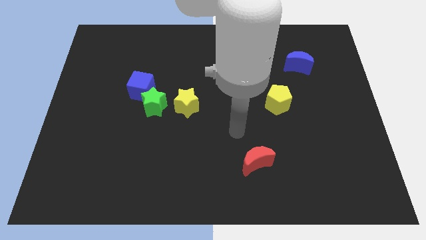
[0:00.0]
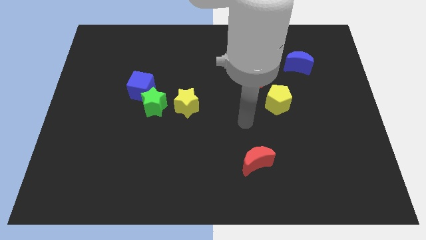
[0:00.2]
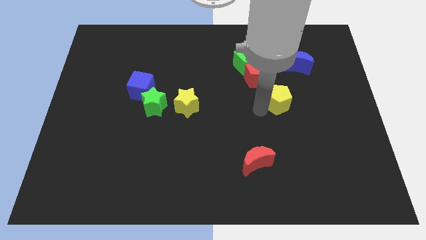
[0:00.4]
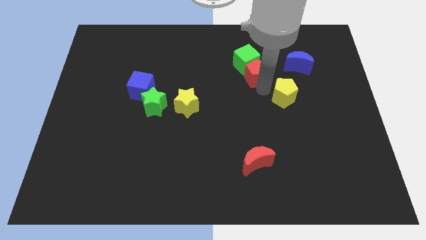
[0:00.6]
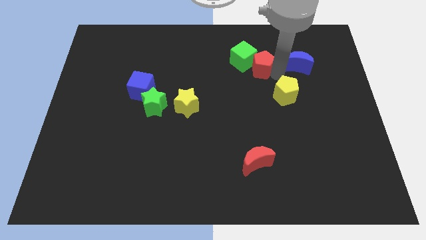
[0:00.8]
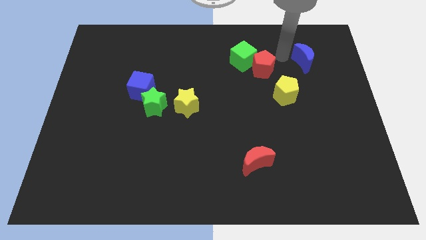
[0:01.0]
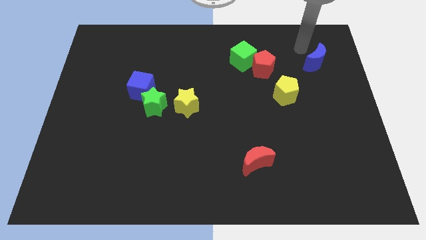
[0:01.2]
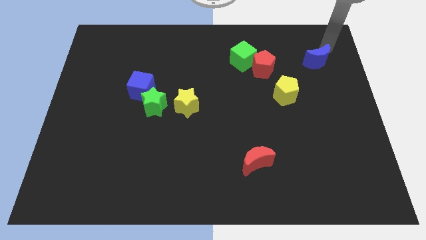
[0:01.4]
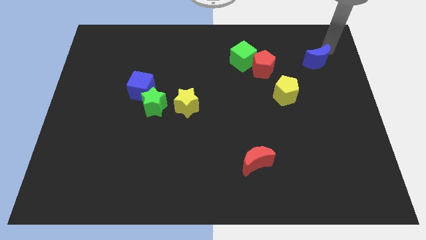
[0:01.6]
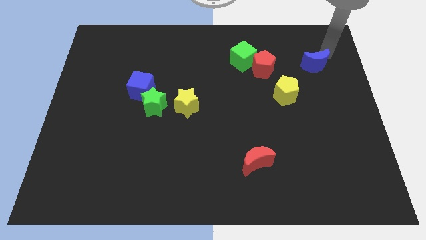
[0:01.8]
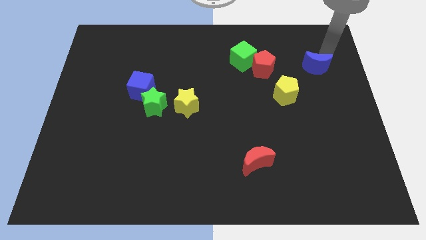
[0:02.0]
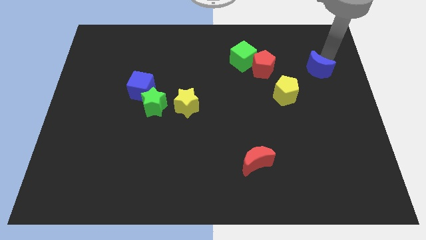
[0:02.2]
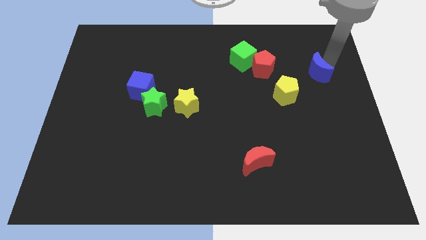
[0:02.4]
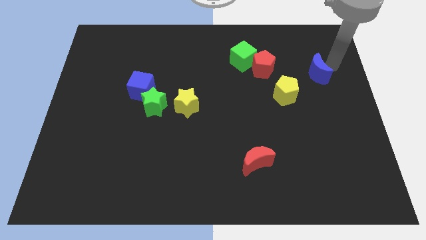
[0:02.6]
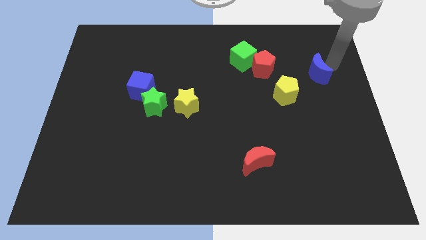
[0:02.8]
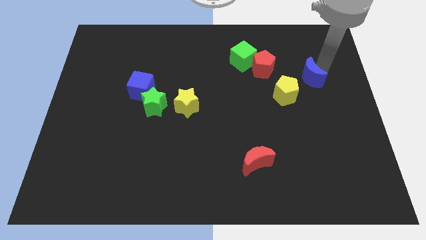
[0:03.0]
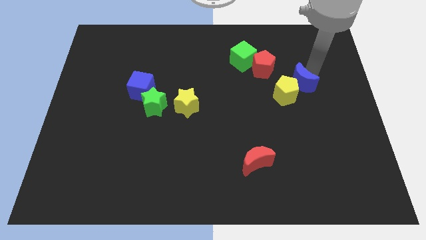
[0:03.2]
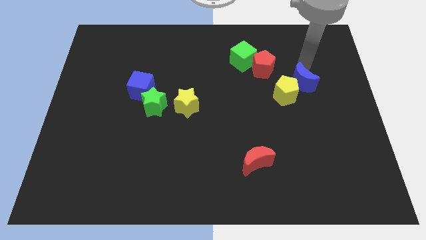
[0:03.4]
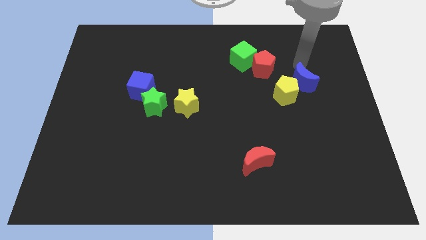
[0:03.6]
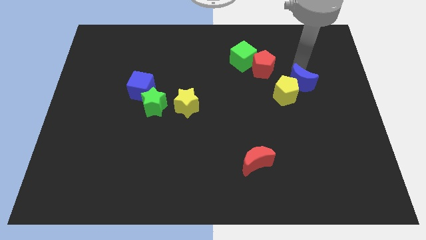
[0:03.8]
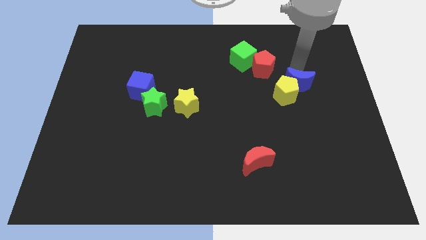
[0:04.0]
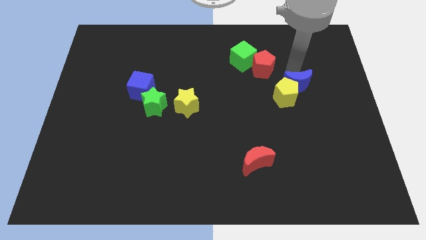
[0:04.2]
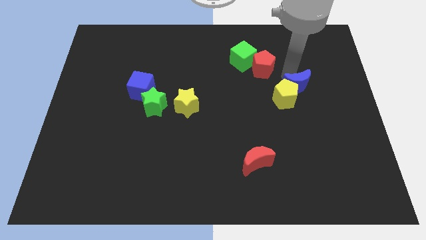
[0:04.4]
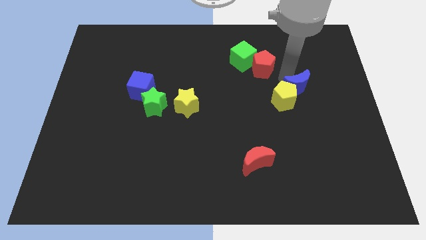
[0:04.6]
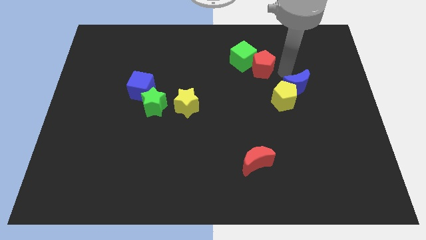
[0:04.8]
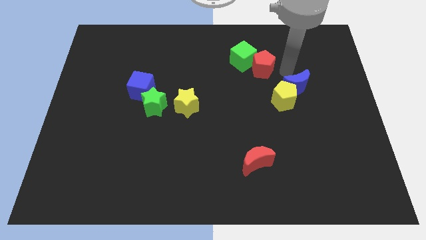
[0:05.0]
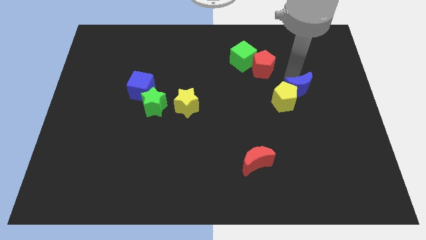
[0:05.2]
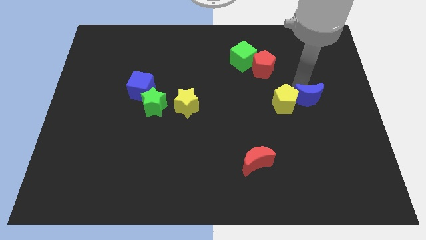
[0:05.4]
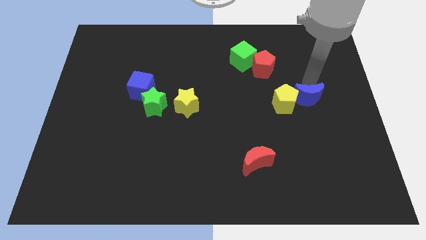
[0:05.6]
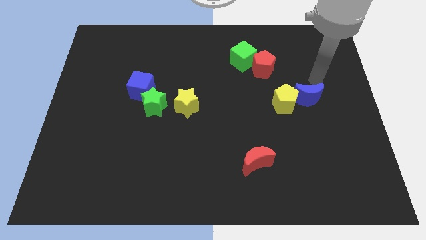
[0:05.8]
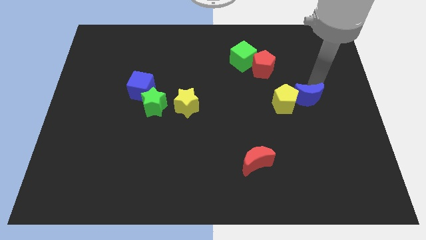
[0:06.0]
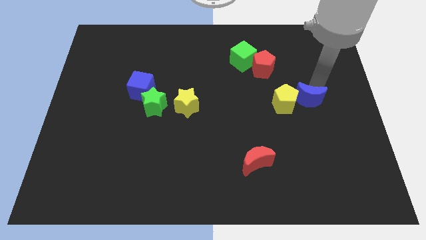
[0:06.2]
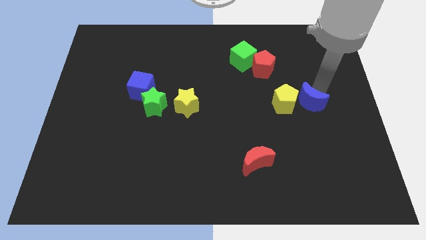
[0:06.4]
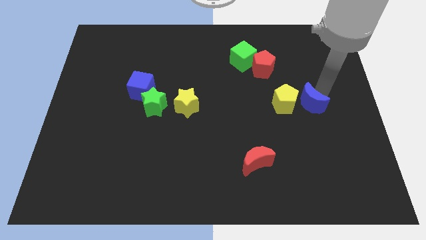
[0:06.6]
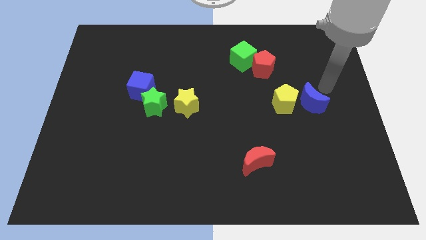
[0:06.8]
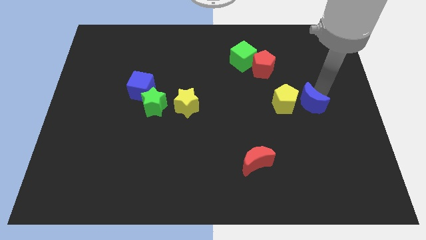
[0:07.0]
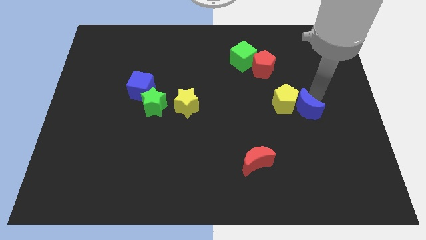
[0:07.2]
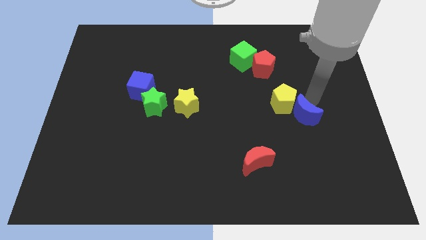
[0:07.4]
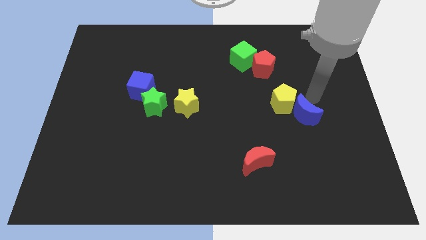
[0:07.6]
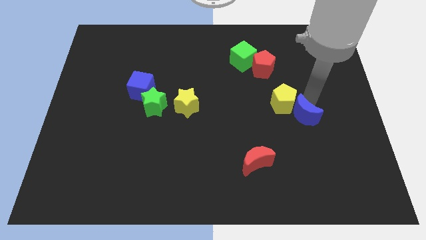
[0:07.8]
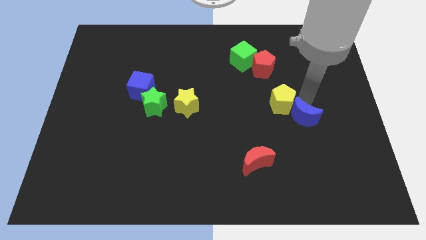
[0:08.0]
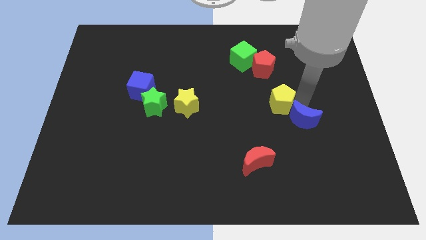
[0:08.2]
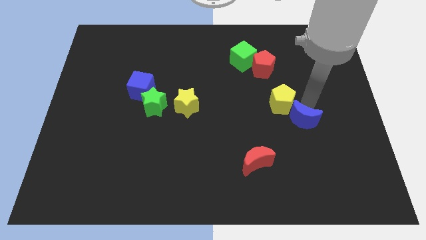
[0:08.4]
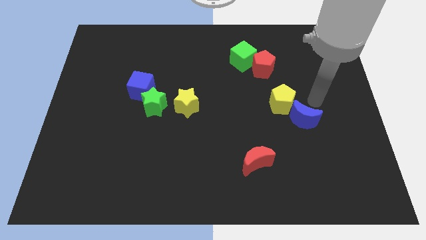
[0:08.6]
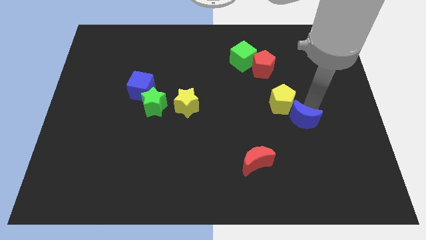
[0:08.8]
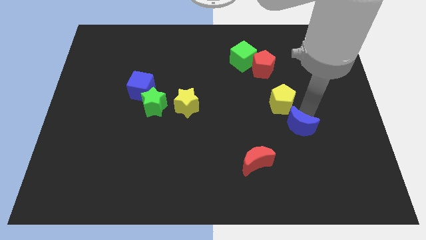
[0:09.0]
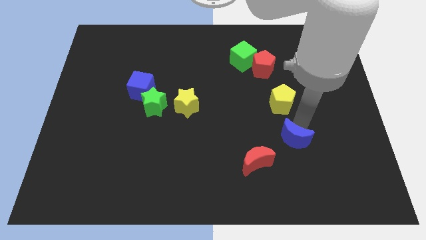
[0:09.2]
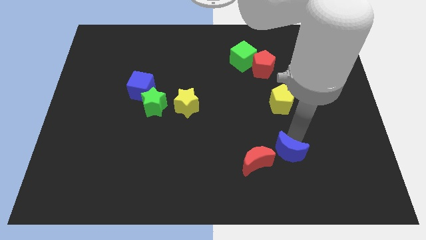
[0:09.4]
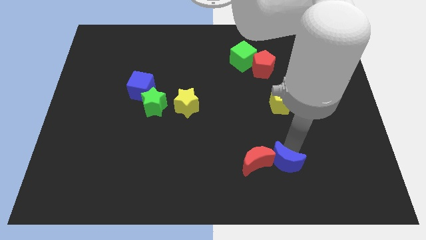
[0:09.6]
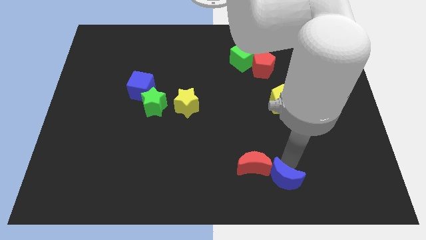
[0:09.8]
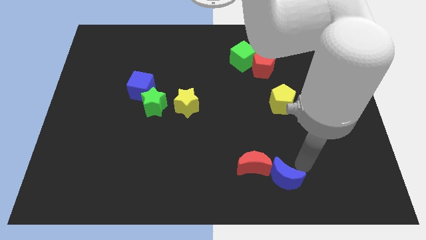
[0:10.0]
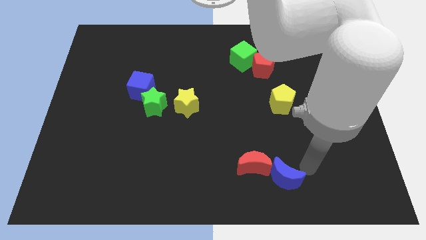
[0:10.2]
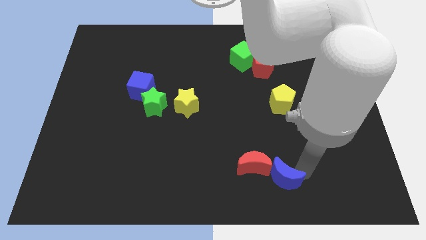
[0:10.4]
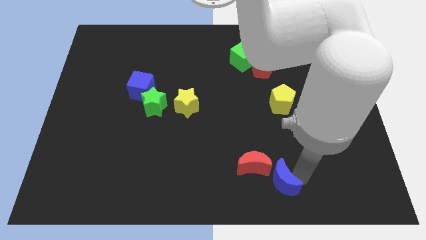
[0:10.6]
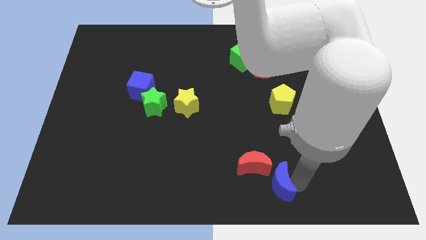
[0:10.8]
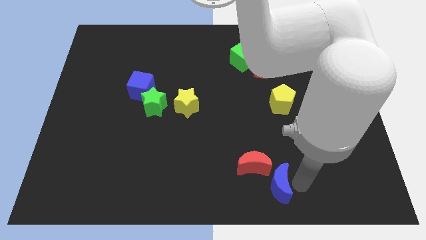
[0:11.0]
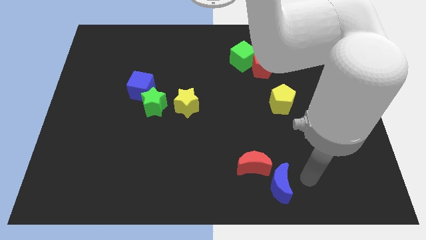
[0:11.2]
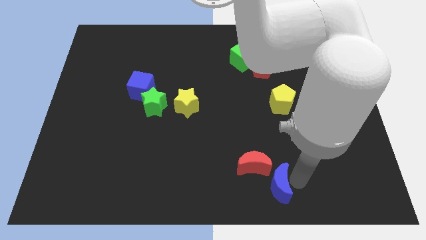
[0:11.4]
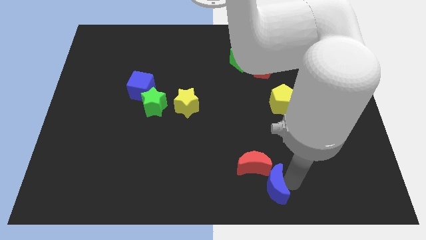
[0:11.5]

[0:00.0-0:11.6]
put the blue moon to the bottom side
